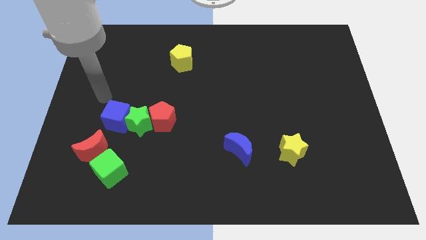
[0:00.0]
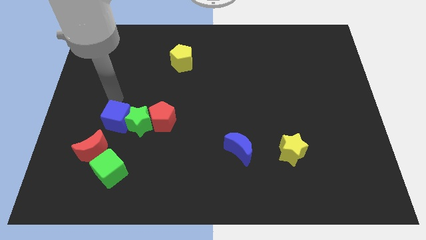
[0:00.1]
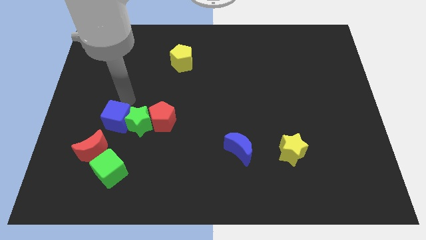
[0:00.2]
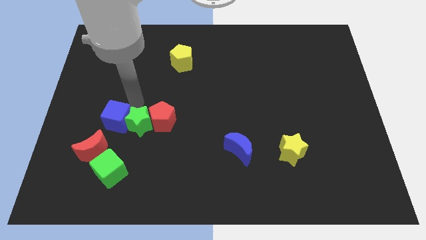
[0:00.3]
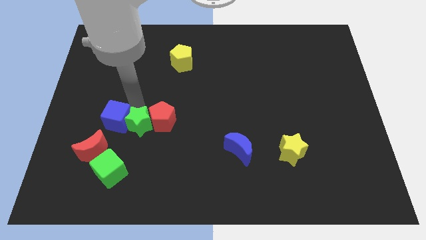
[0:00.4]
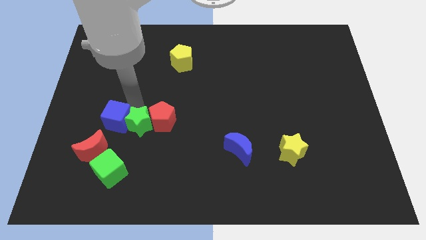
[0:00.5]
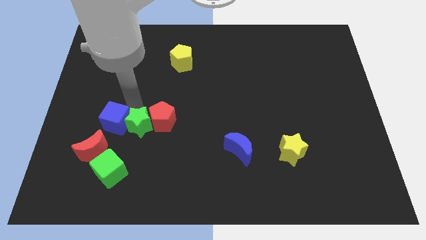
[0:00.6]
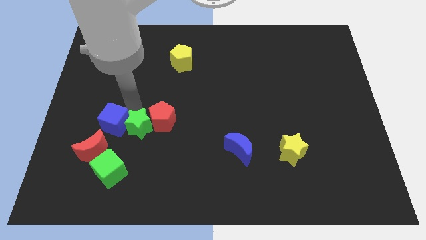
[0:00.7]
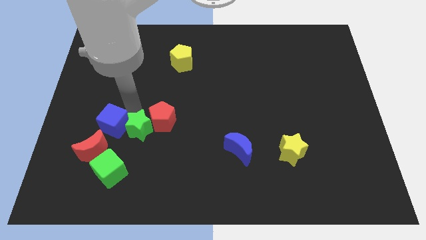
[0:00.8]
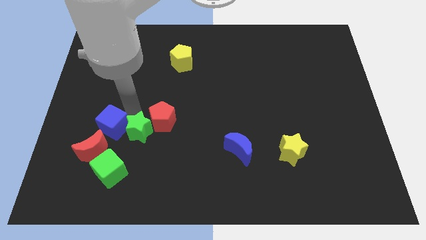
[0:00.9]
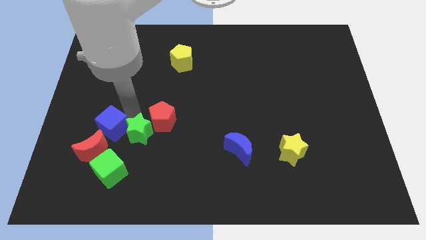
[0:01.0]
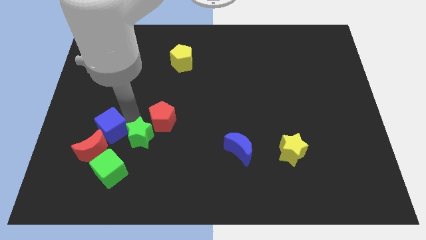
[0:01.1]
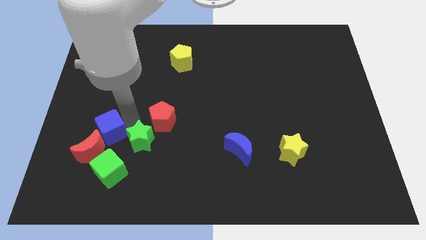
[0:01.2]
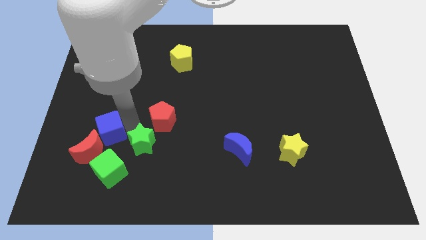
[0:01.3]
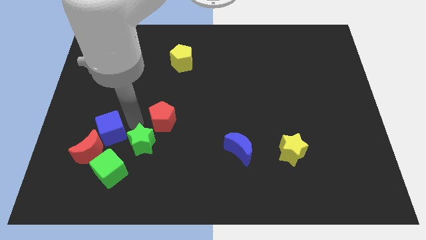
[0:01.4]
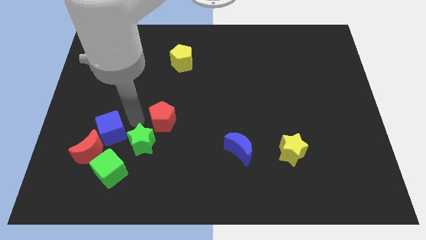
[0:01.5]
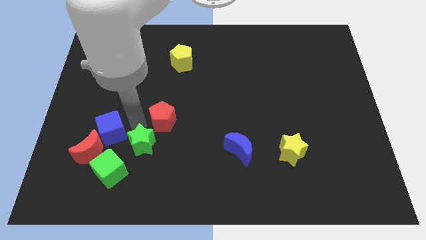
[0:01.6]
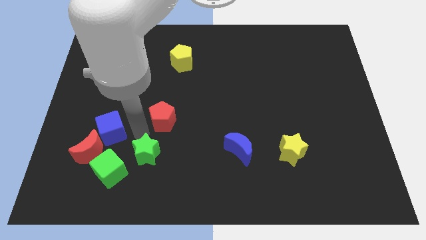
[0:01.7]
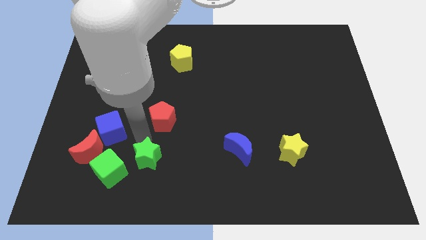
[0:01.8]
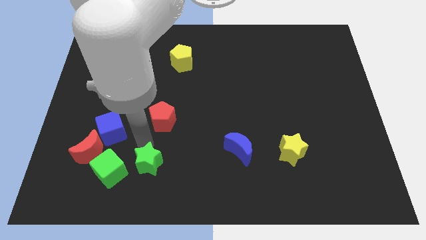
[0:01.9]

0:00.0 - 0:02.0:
move the green star away from the red pentagon and blue cube

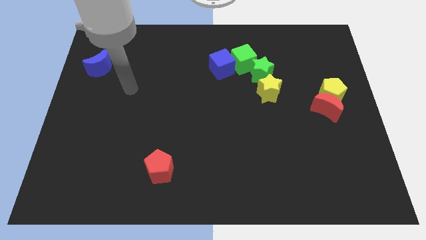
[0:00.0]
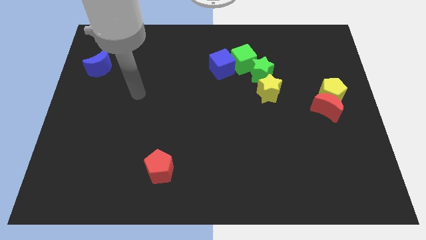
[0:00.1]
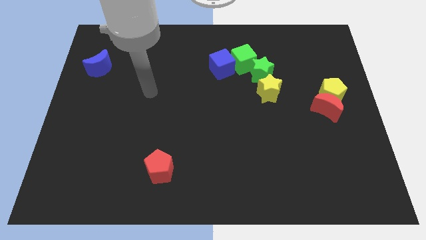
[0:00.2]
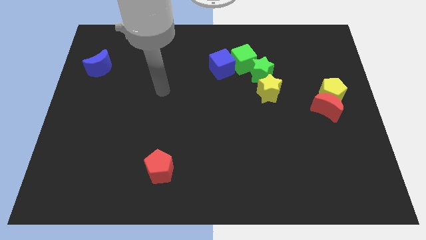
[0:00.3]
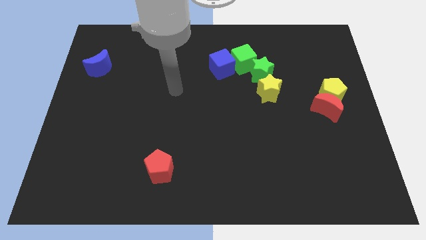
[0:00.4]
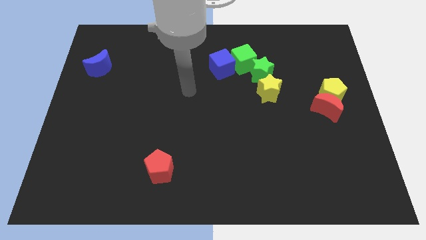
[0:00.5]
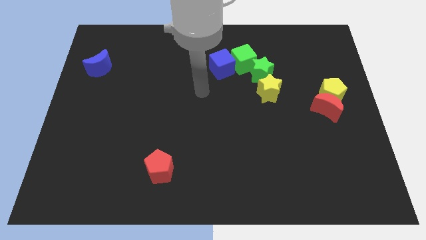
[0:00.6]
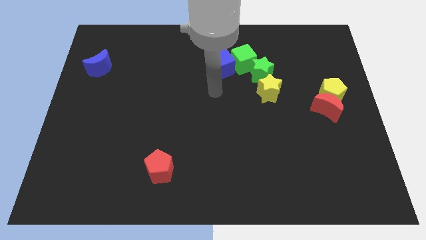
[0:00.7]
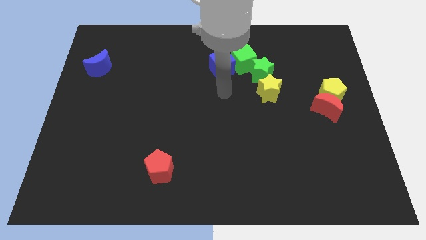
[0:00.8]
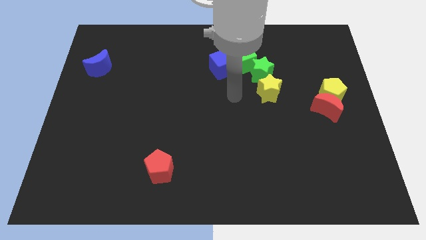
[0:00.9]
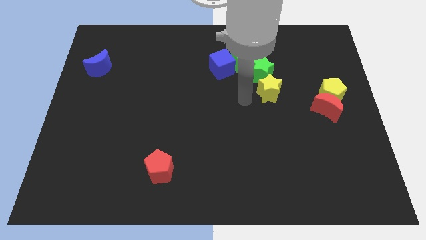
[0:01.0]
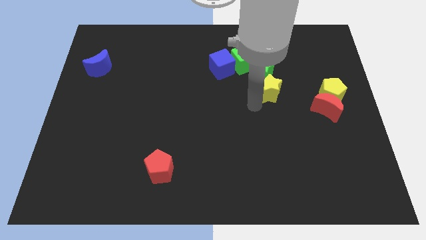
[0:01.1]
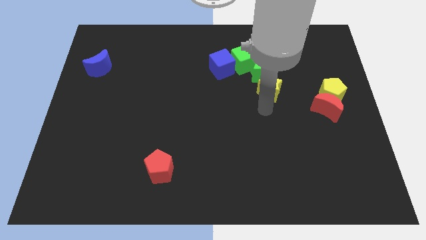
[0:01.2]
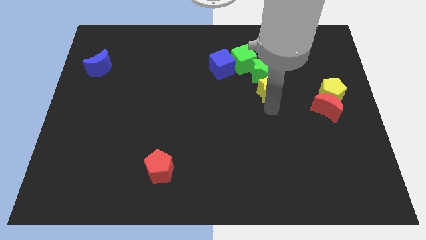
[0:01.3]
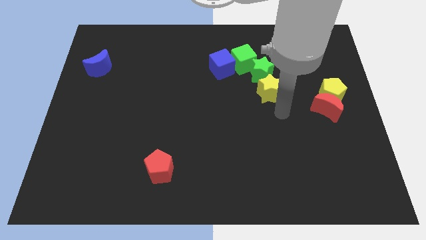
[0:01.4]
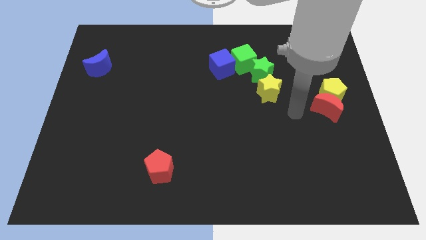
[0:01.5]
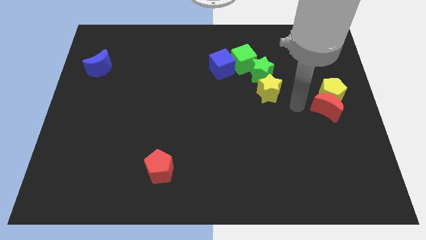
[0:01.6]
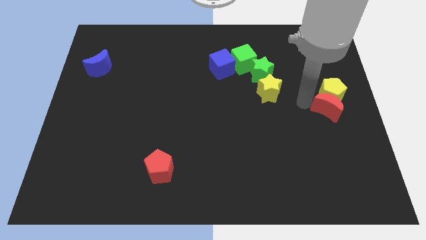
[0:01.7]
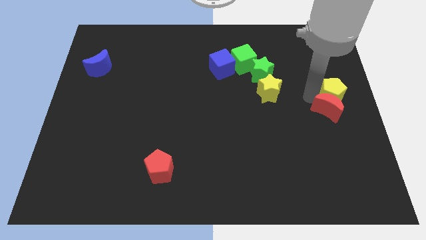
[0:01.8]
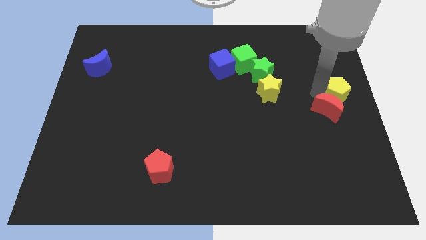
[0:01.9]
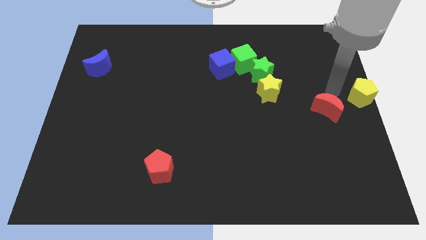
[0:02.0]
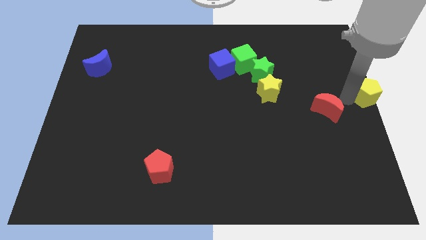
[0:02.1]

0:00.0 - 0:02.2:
pull the red moon apart from the yellow pentagon

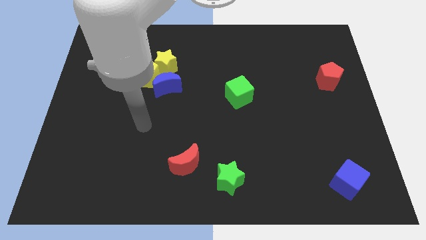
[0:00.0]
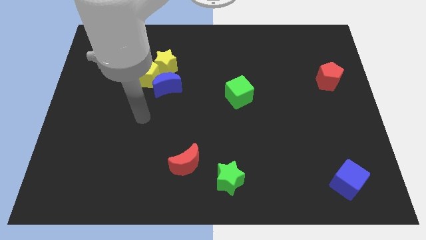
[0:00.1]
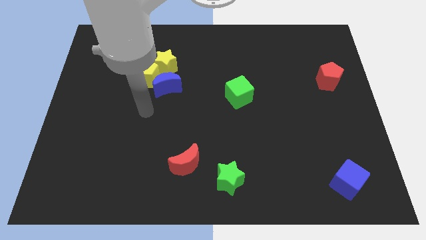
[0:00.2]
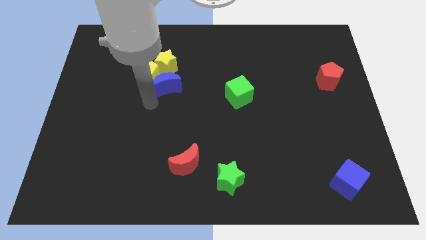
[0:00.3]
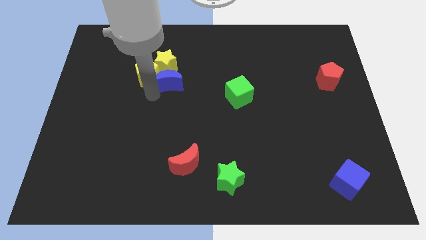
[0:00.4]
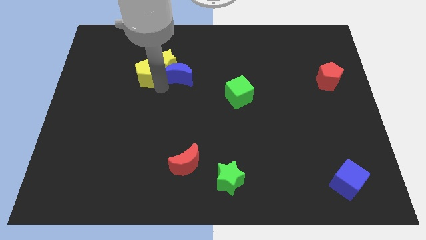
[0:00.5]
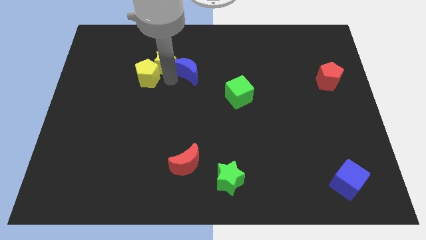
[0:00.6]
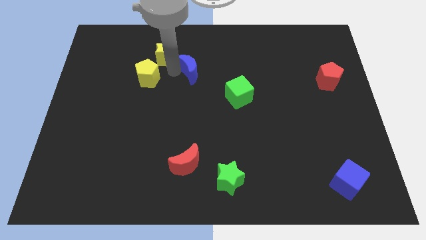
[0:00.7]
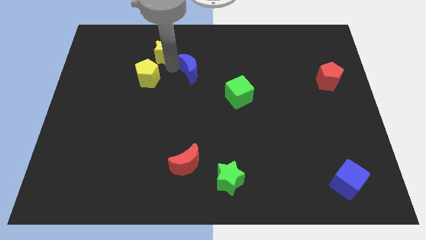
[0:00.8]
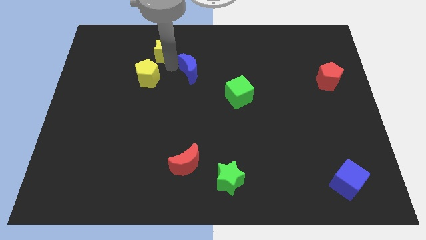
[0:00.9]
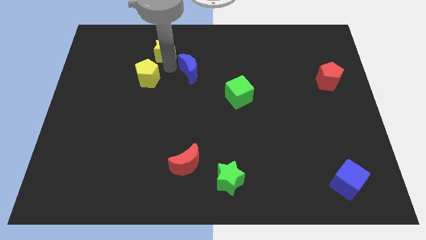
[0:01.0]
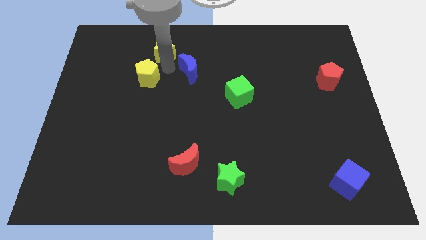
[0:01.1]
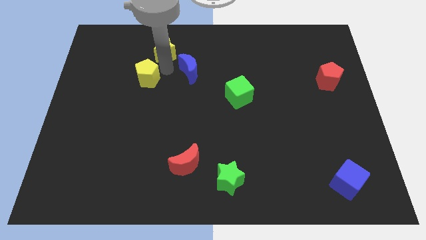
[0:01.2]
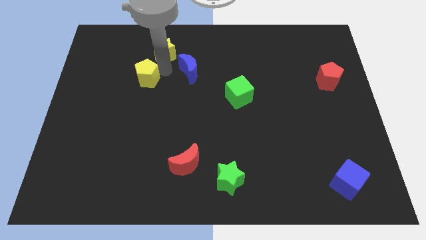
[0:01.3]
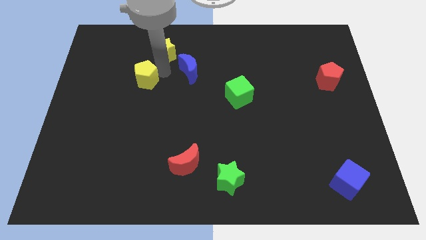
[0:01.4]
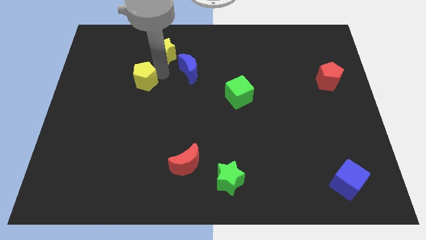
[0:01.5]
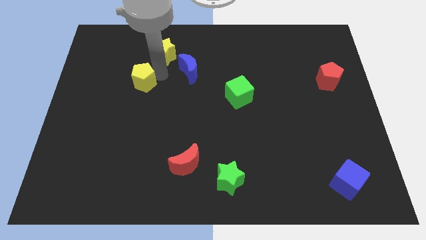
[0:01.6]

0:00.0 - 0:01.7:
separate the yellow pentagon from the yellow star and blue moon

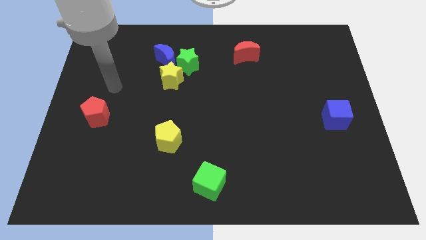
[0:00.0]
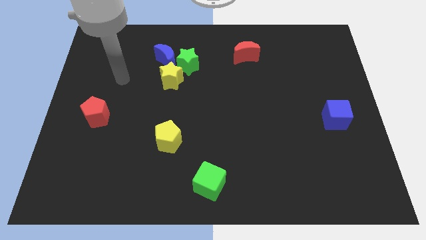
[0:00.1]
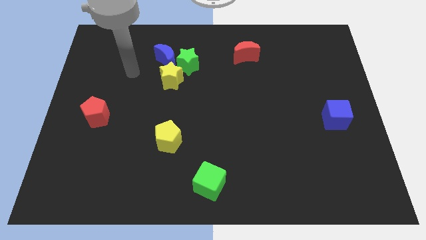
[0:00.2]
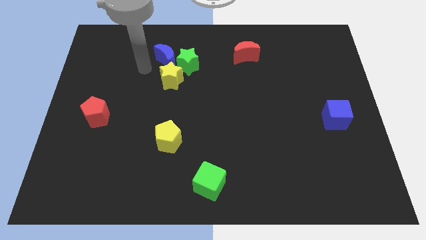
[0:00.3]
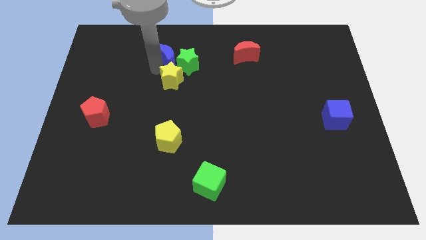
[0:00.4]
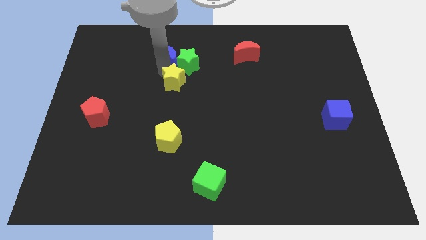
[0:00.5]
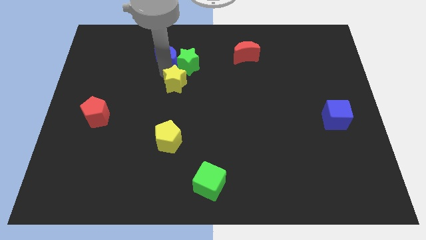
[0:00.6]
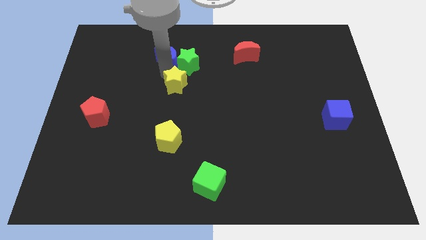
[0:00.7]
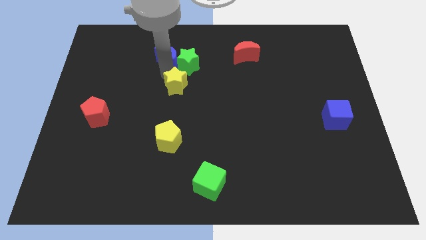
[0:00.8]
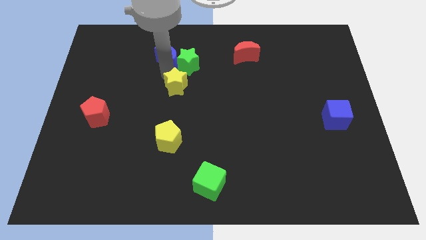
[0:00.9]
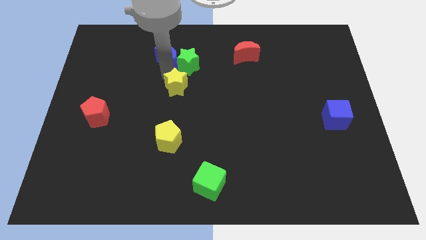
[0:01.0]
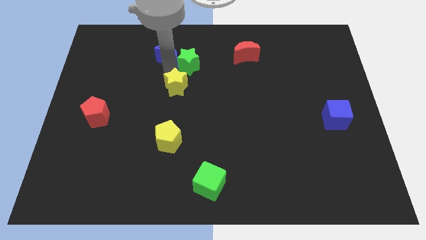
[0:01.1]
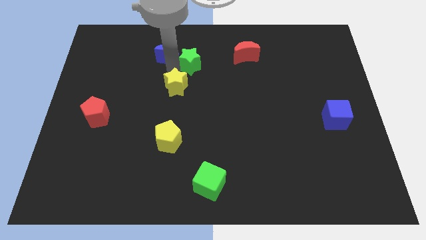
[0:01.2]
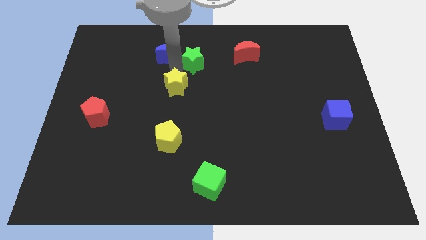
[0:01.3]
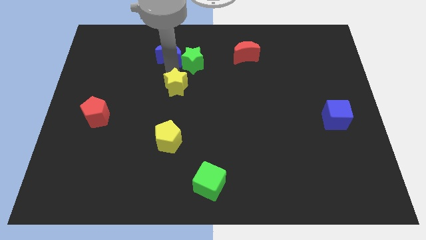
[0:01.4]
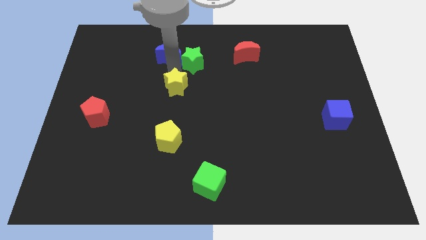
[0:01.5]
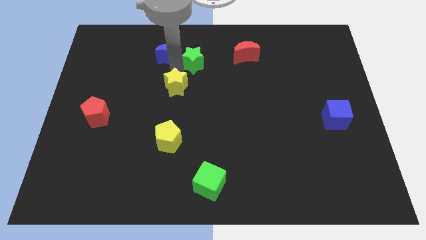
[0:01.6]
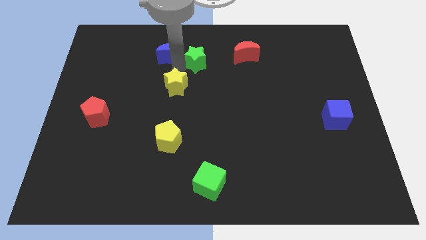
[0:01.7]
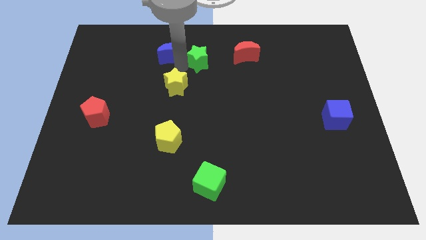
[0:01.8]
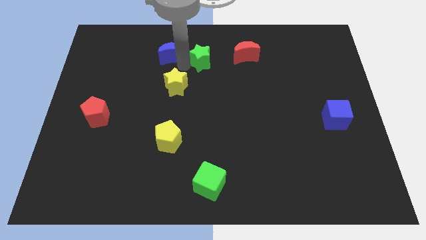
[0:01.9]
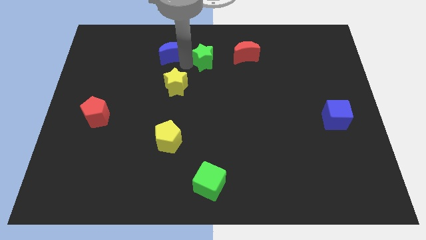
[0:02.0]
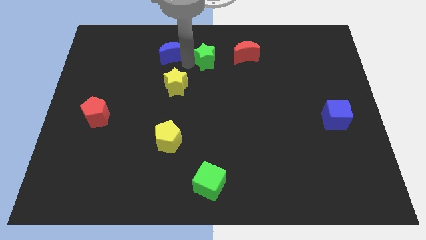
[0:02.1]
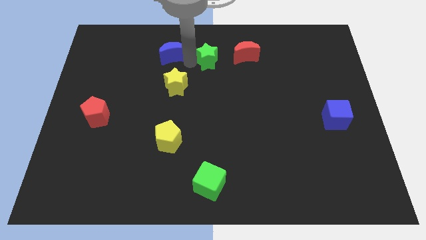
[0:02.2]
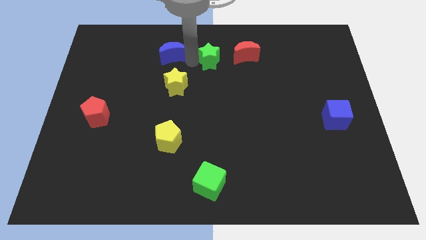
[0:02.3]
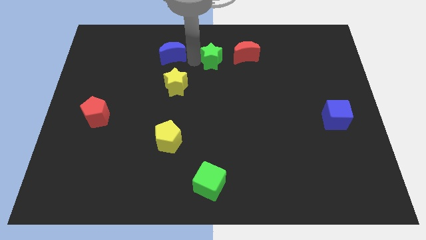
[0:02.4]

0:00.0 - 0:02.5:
pull the green star apart from the blue moon and yellow star

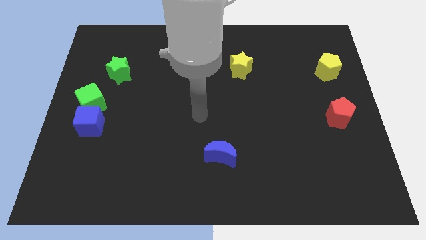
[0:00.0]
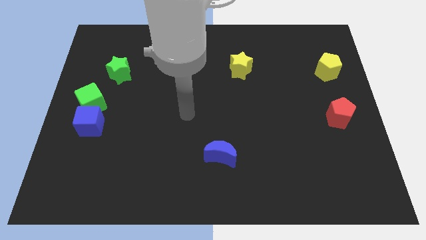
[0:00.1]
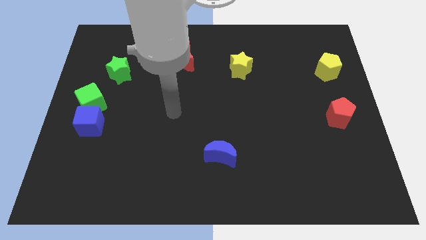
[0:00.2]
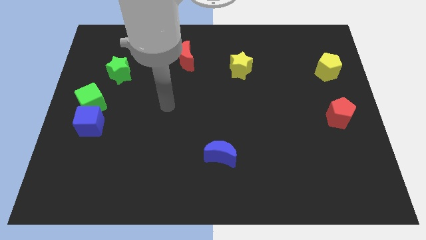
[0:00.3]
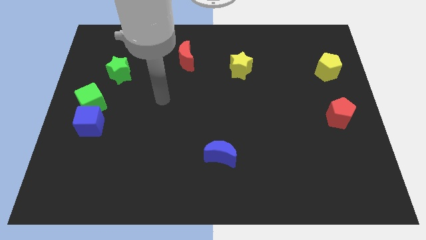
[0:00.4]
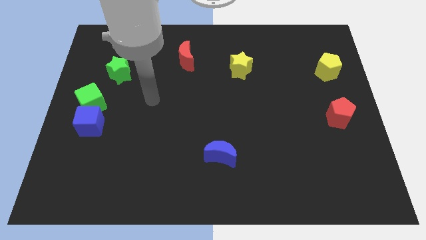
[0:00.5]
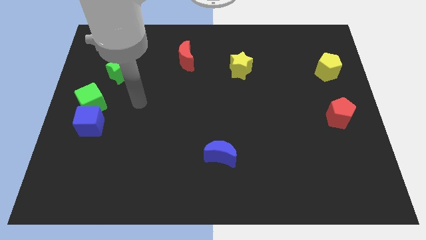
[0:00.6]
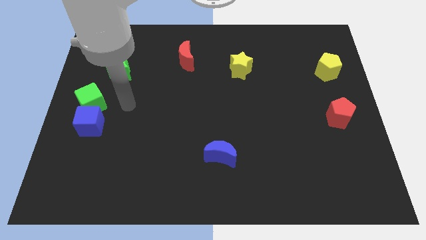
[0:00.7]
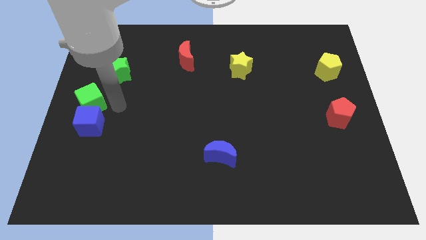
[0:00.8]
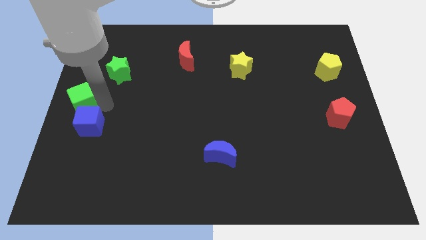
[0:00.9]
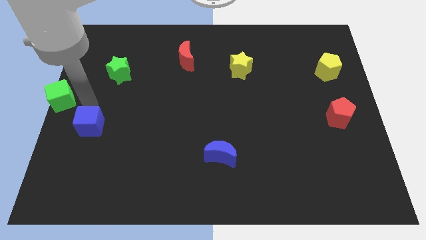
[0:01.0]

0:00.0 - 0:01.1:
move the blue cube away from the green cube

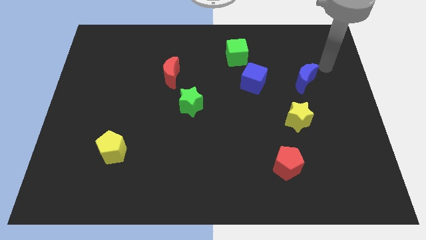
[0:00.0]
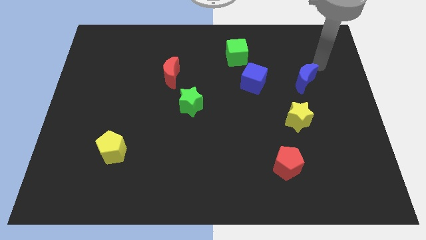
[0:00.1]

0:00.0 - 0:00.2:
pull the blue cube apart from the green cube
